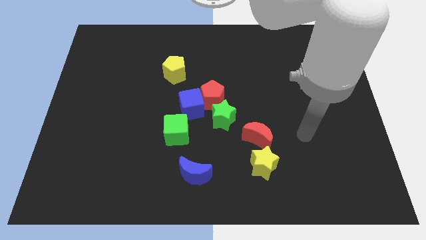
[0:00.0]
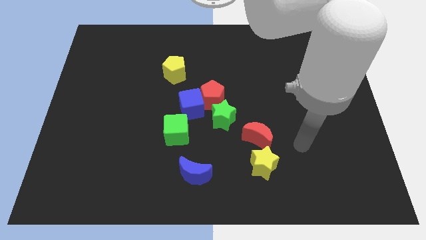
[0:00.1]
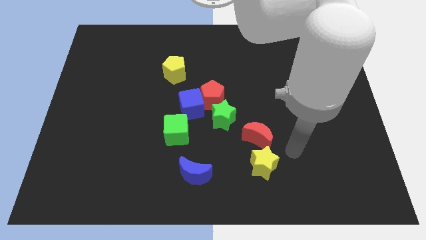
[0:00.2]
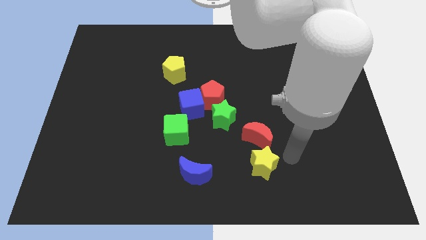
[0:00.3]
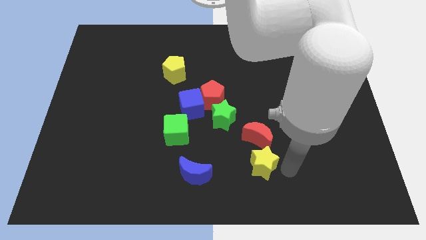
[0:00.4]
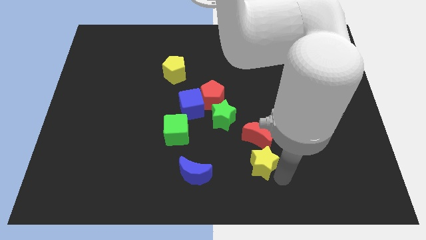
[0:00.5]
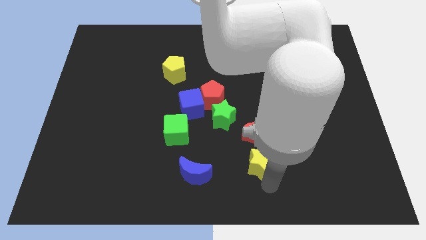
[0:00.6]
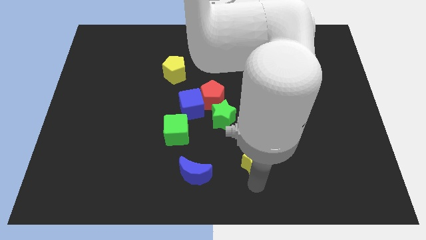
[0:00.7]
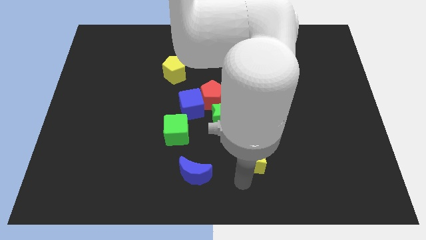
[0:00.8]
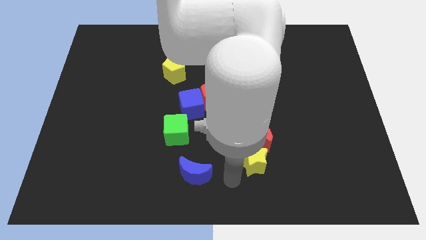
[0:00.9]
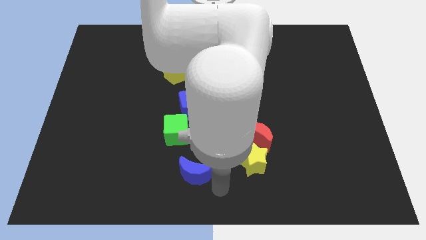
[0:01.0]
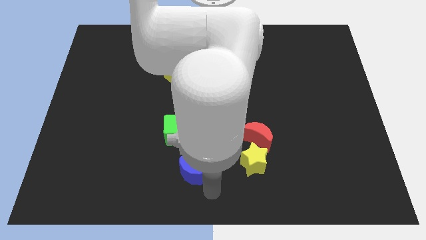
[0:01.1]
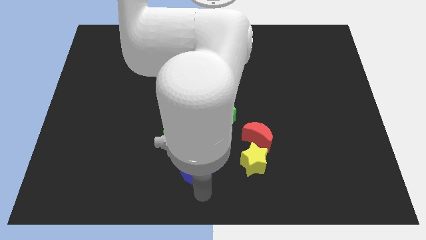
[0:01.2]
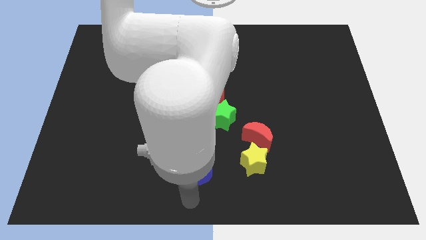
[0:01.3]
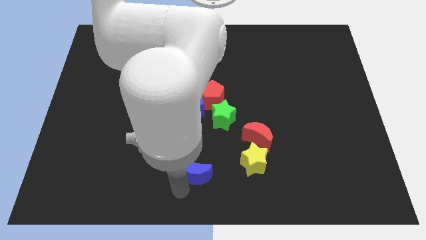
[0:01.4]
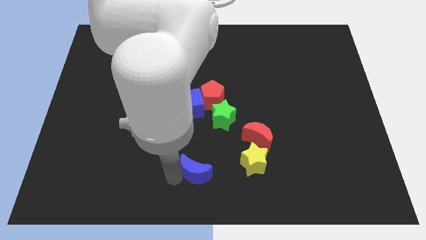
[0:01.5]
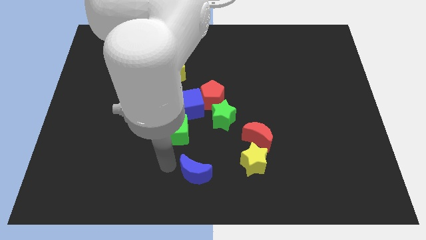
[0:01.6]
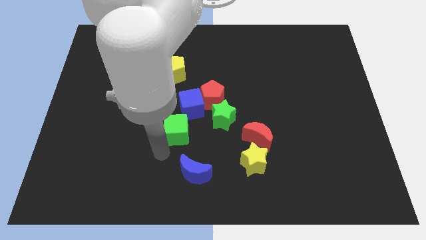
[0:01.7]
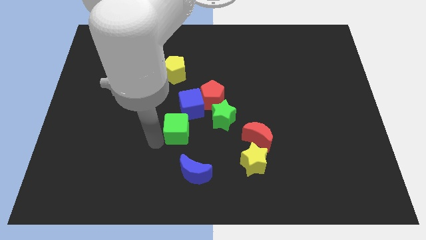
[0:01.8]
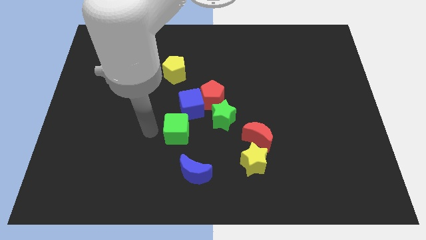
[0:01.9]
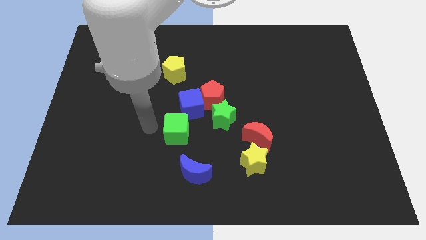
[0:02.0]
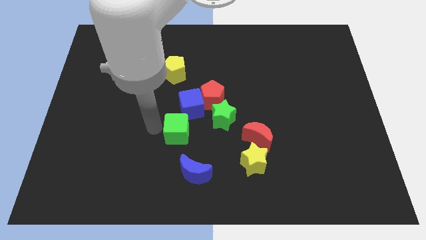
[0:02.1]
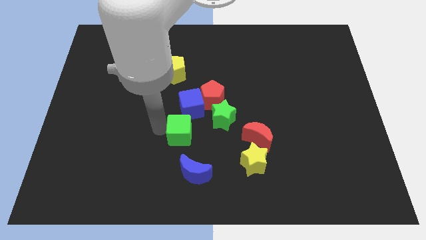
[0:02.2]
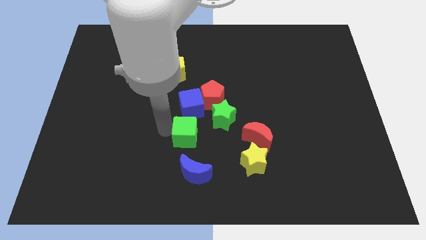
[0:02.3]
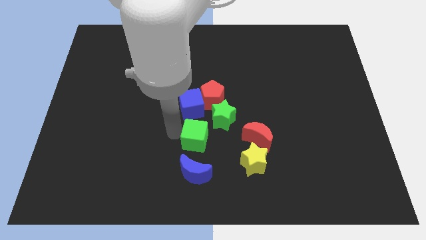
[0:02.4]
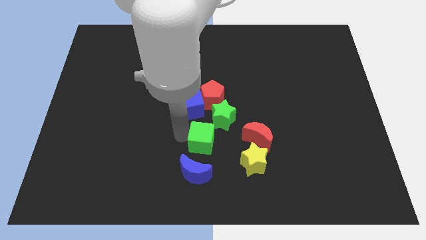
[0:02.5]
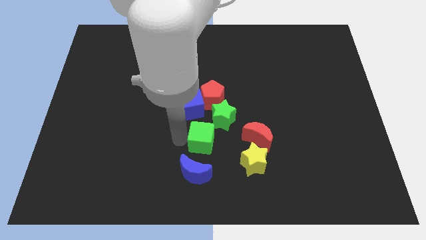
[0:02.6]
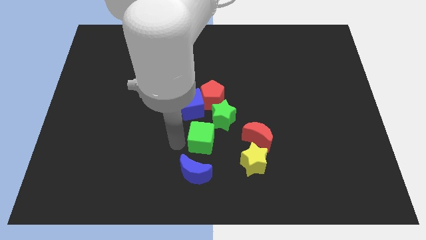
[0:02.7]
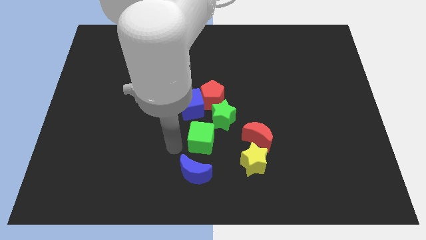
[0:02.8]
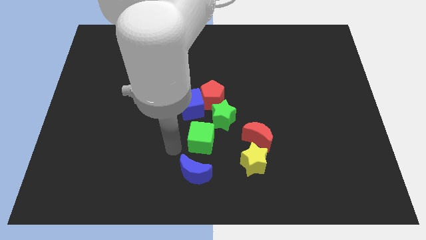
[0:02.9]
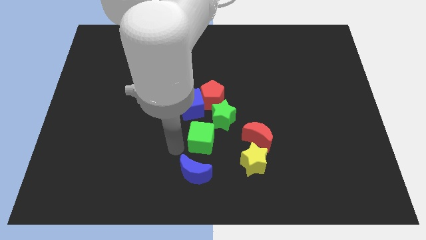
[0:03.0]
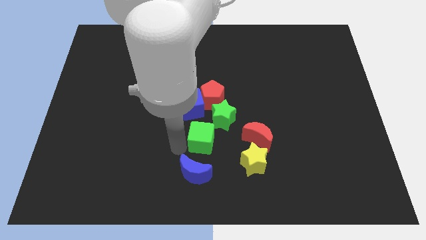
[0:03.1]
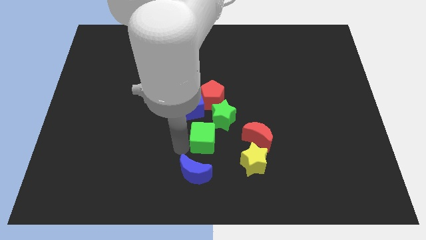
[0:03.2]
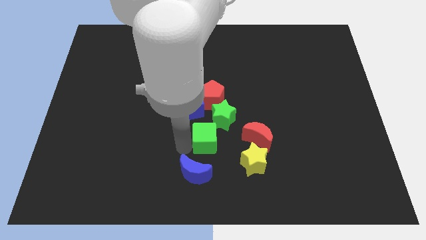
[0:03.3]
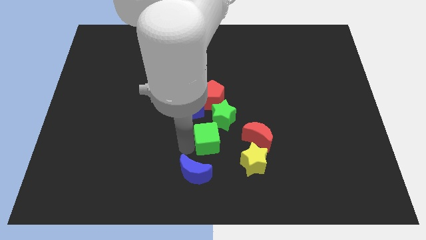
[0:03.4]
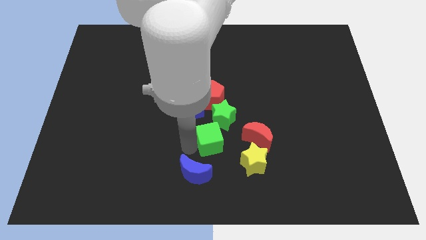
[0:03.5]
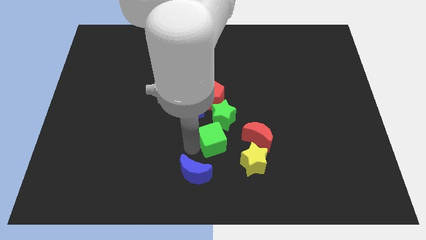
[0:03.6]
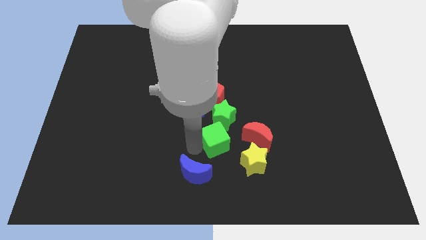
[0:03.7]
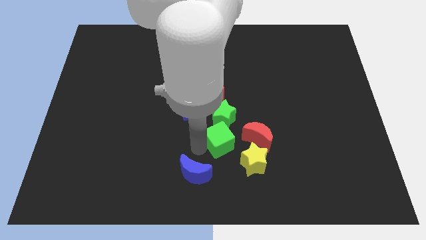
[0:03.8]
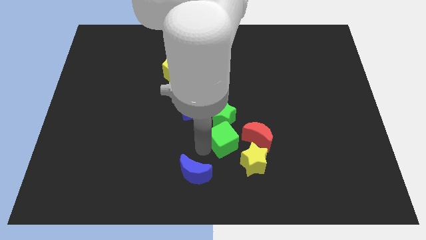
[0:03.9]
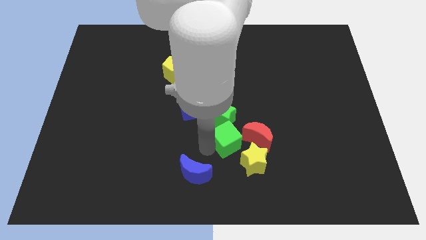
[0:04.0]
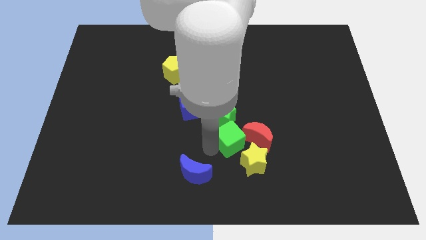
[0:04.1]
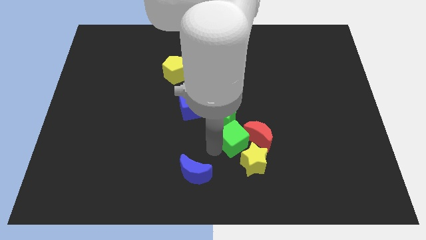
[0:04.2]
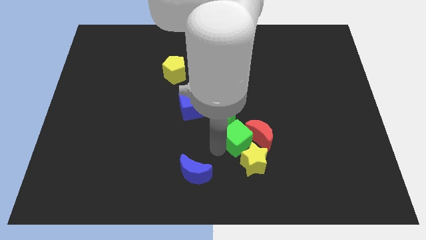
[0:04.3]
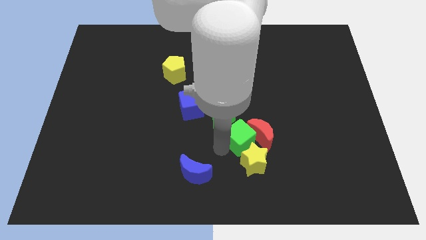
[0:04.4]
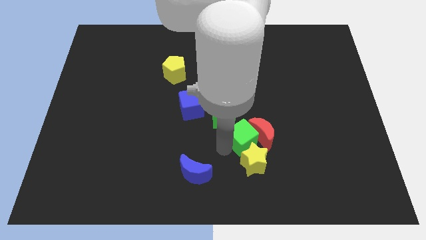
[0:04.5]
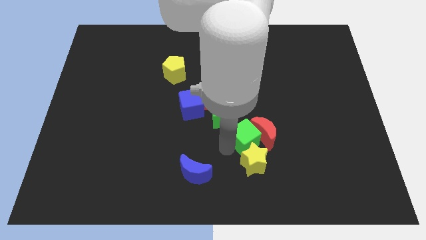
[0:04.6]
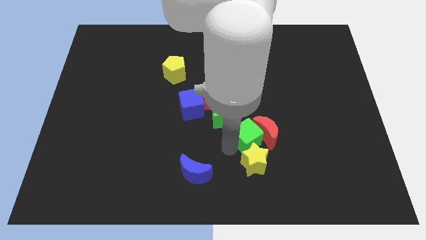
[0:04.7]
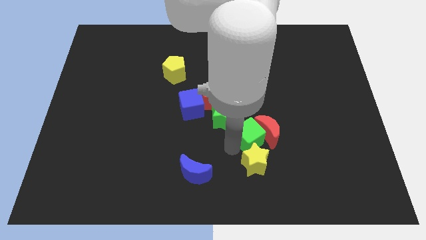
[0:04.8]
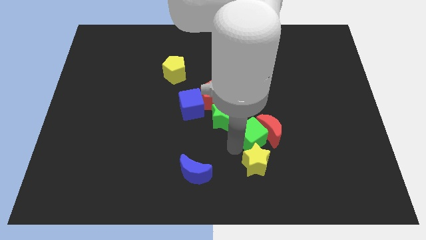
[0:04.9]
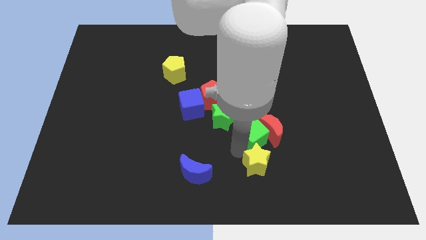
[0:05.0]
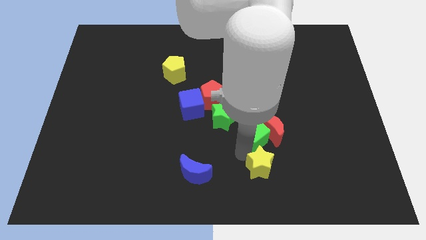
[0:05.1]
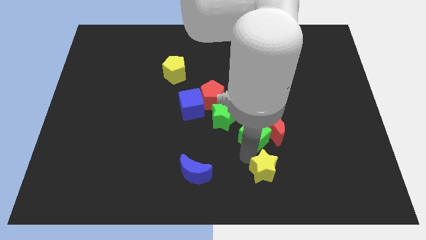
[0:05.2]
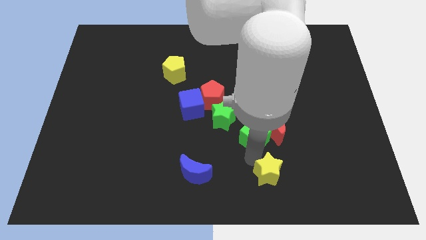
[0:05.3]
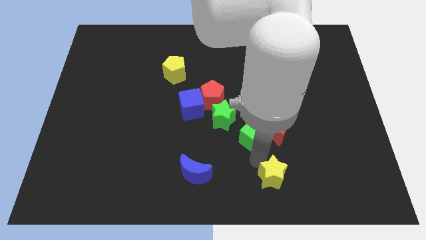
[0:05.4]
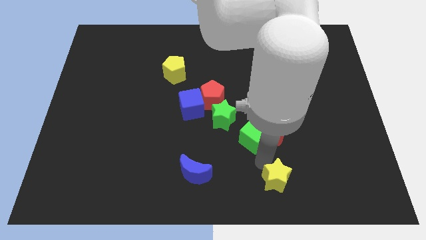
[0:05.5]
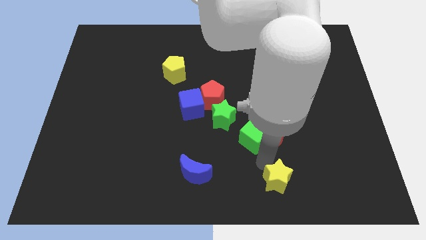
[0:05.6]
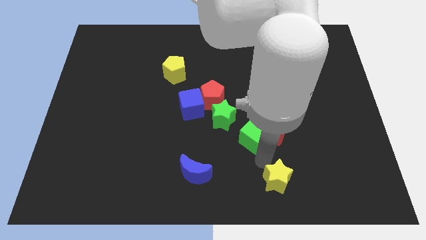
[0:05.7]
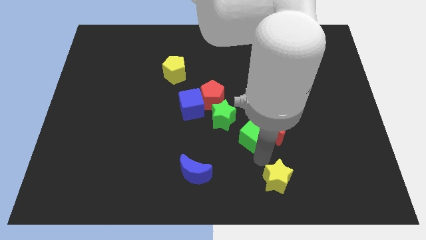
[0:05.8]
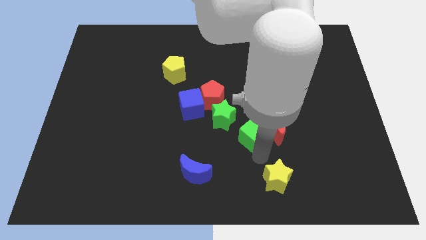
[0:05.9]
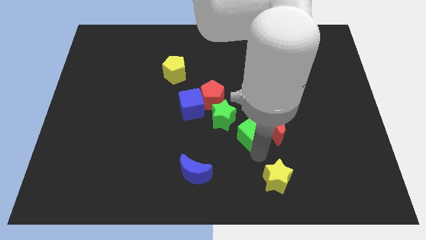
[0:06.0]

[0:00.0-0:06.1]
move the green cube just right of the green star

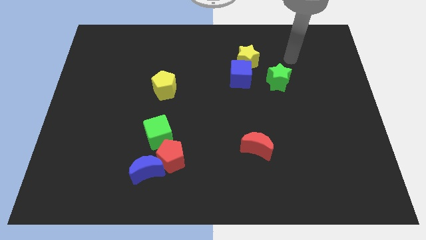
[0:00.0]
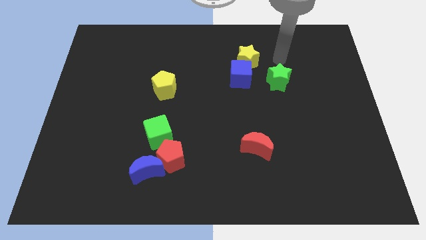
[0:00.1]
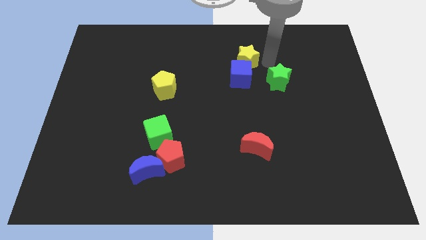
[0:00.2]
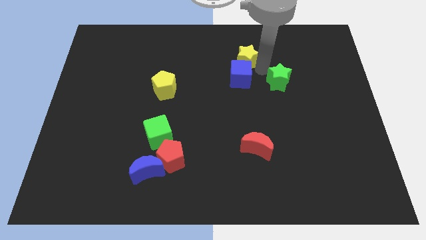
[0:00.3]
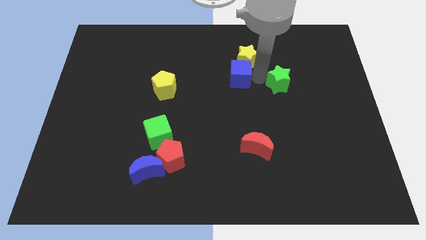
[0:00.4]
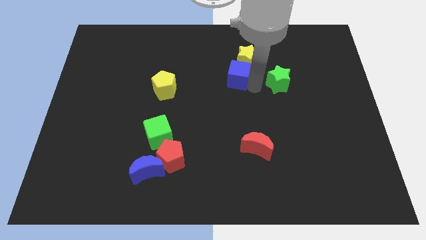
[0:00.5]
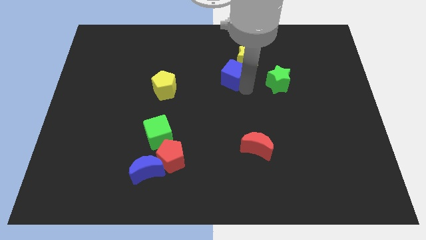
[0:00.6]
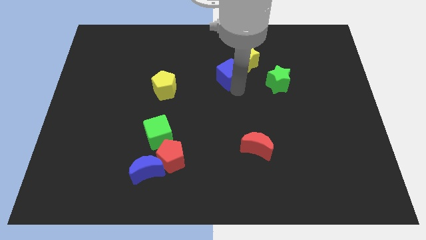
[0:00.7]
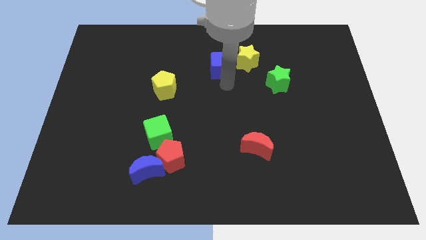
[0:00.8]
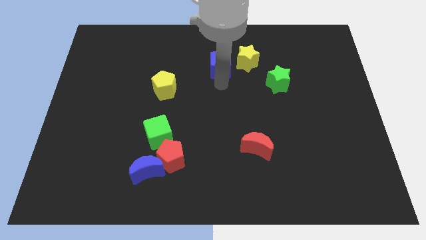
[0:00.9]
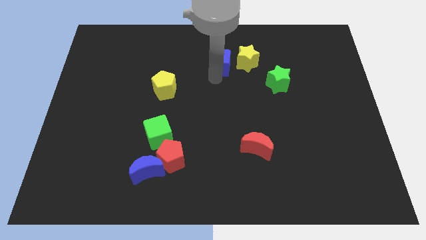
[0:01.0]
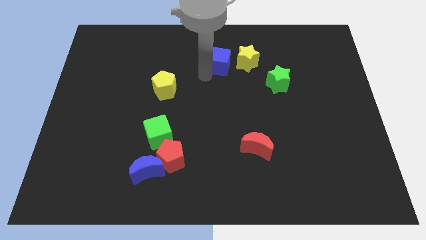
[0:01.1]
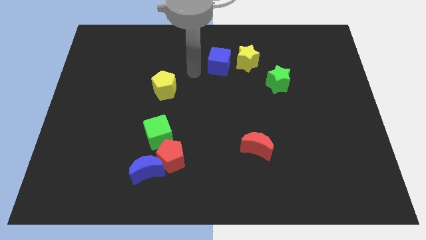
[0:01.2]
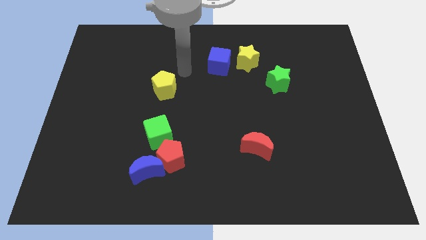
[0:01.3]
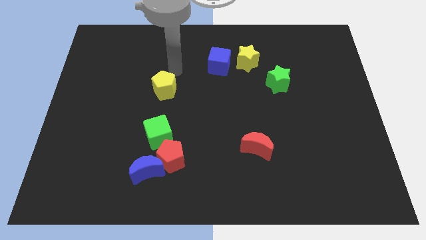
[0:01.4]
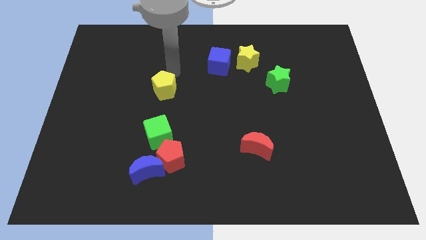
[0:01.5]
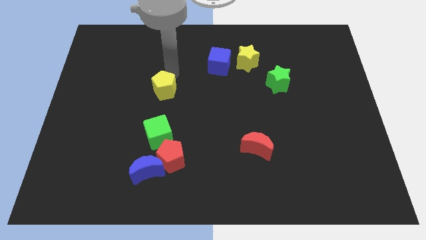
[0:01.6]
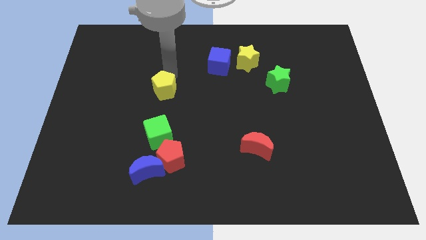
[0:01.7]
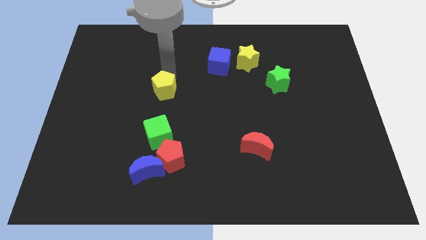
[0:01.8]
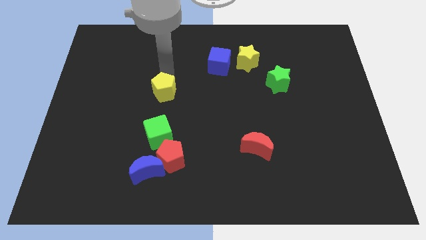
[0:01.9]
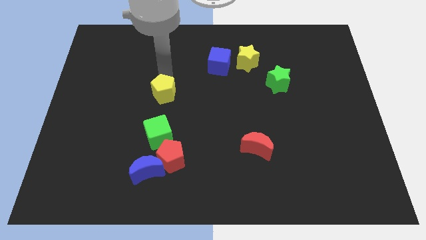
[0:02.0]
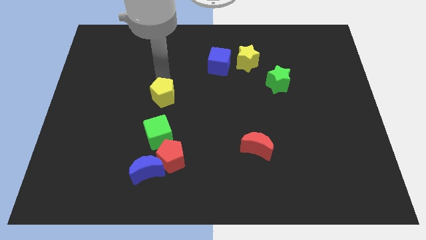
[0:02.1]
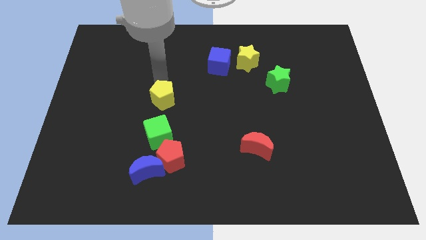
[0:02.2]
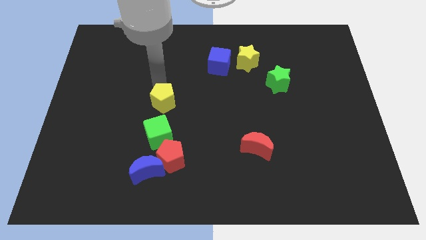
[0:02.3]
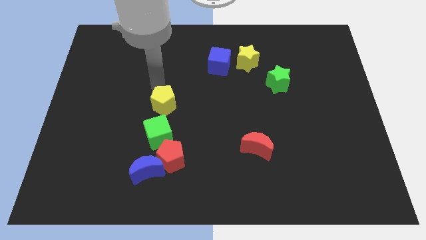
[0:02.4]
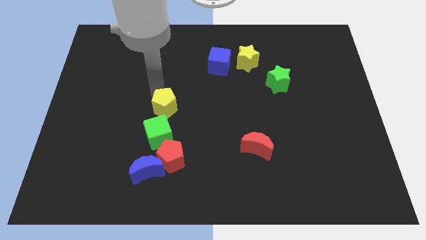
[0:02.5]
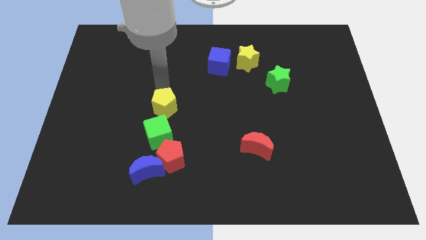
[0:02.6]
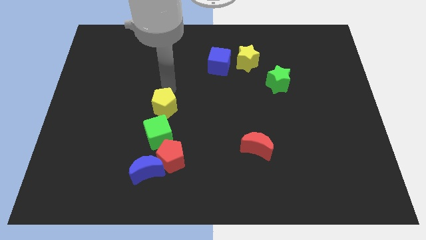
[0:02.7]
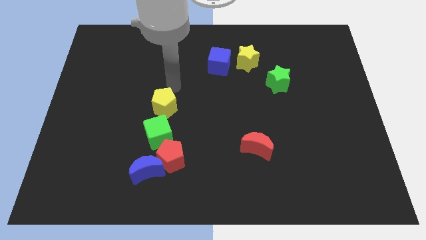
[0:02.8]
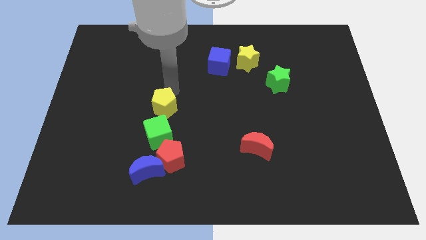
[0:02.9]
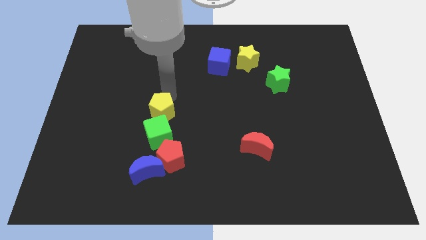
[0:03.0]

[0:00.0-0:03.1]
push the yellow pentagon to the top of the blue moon
